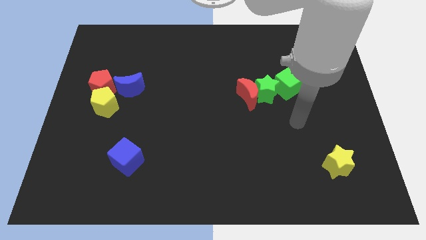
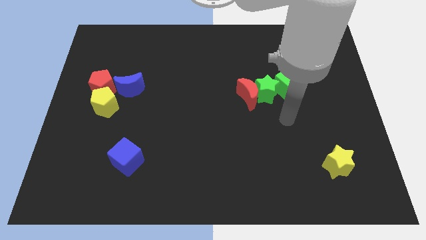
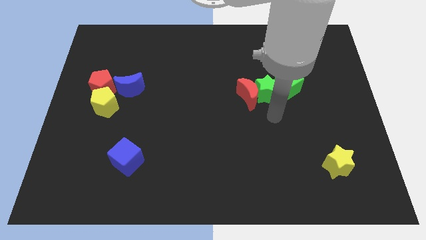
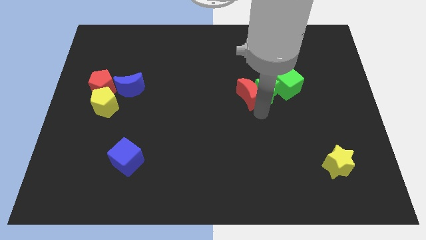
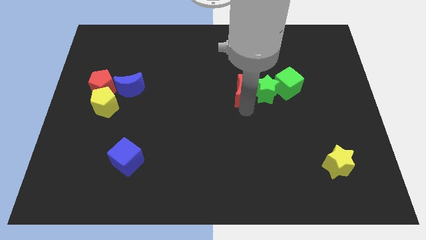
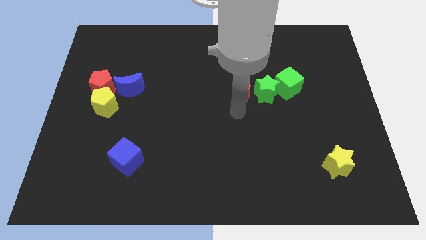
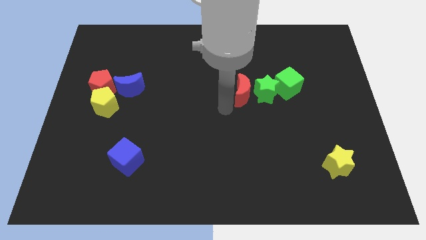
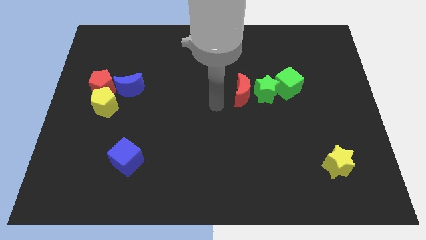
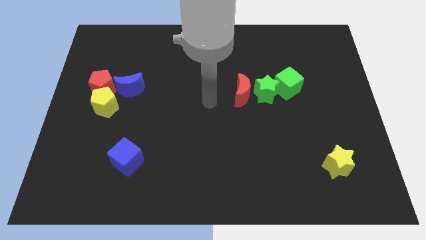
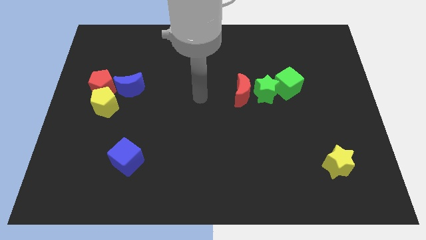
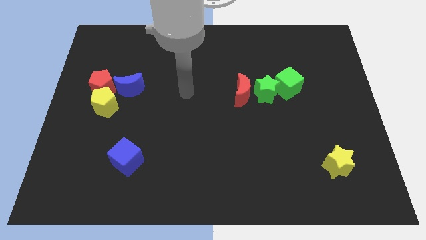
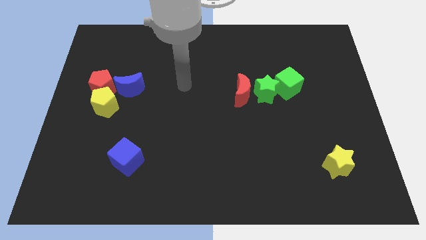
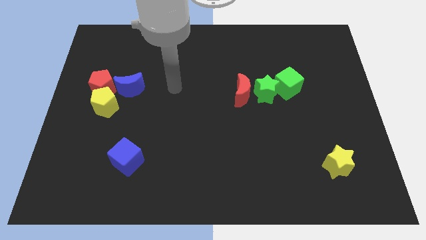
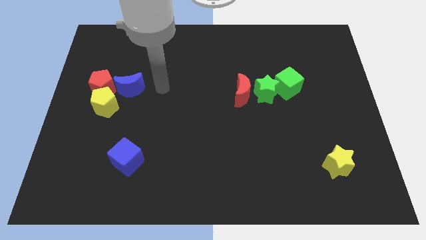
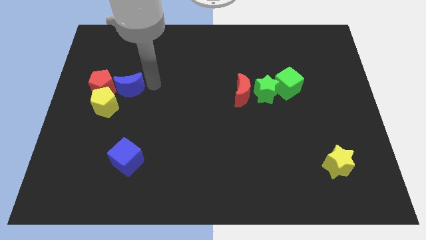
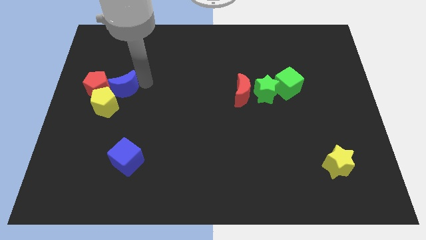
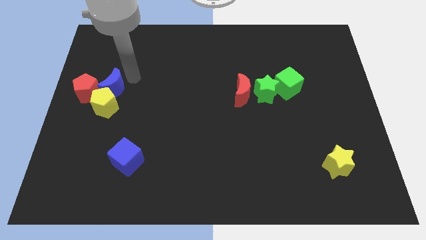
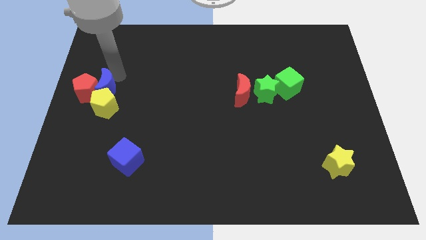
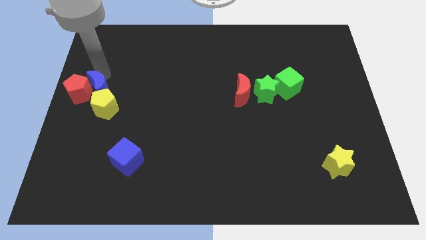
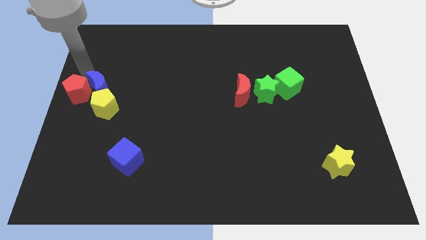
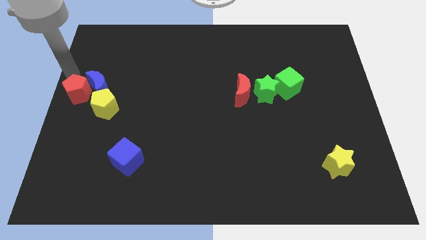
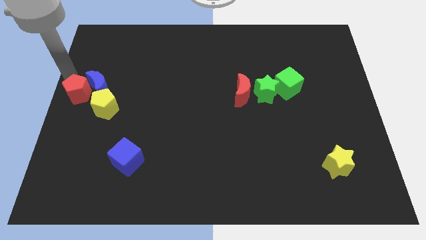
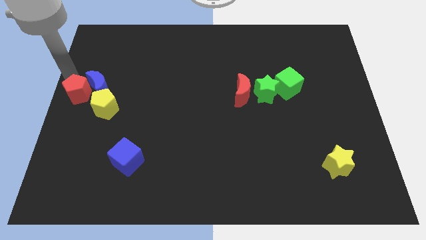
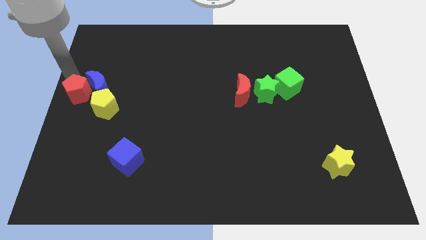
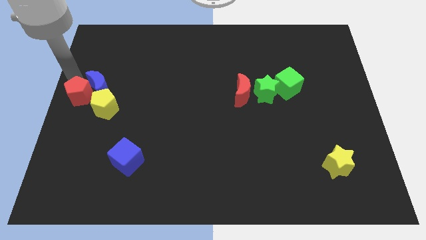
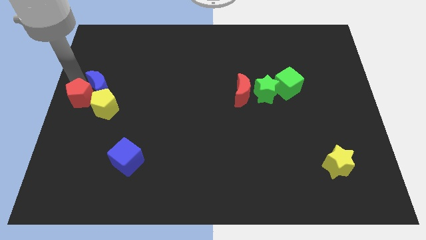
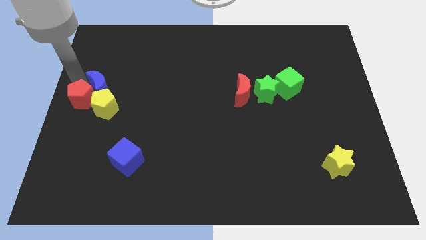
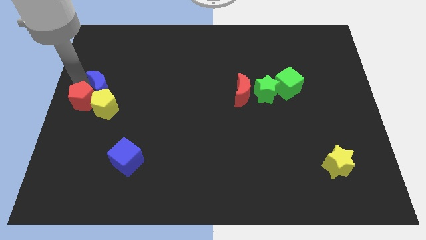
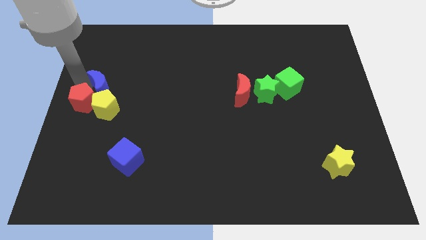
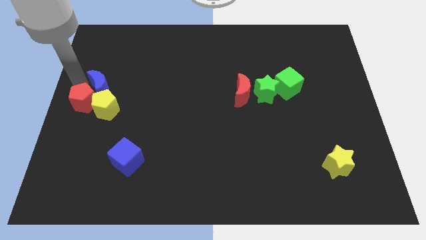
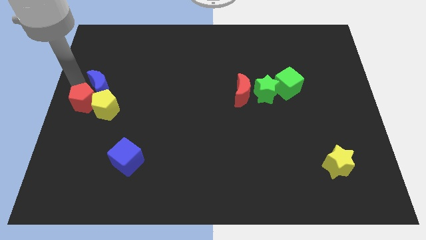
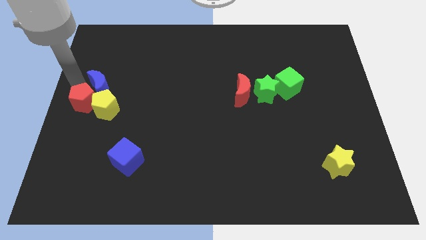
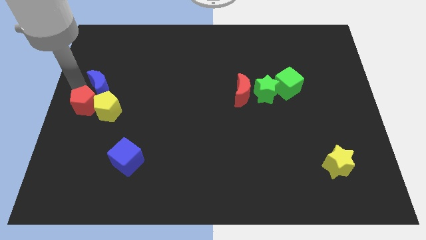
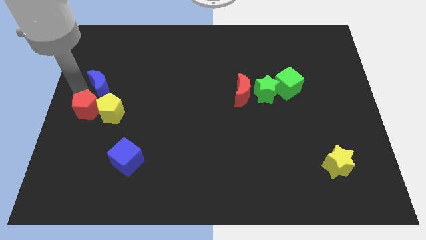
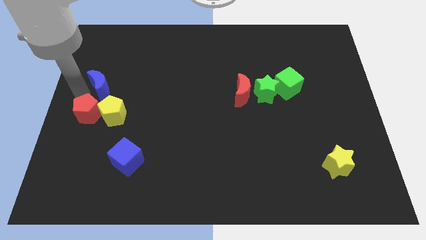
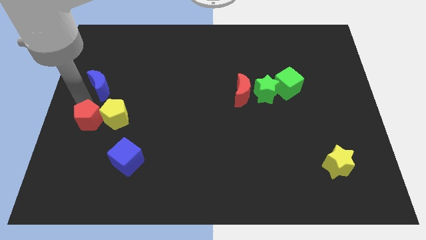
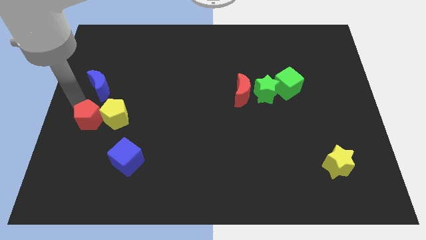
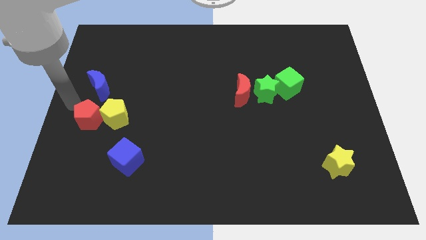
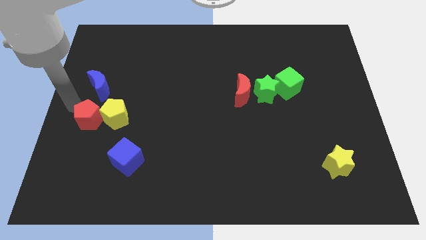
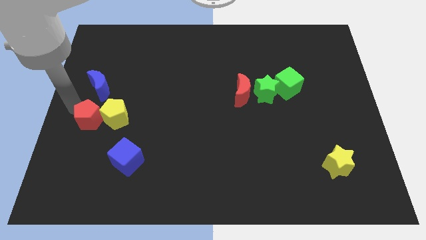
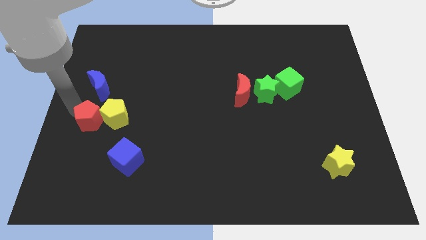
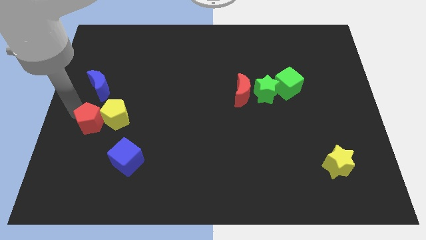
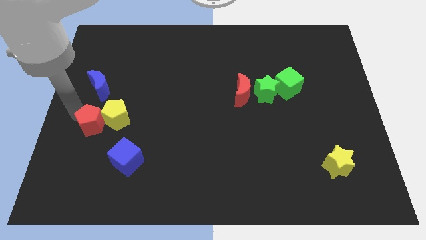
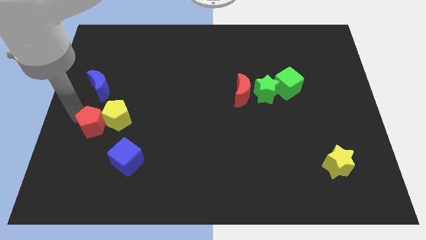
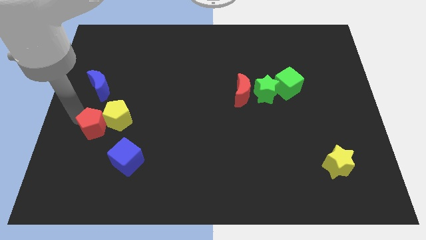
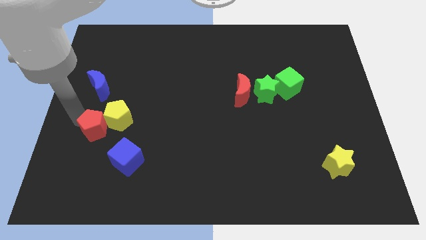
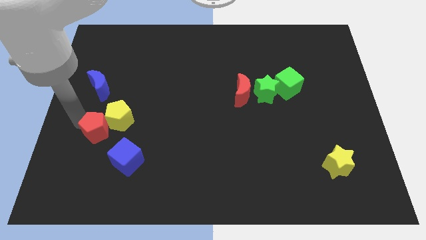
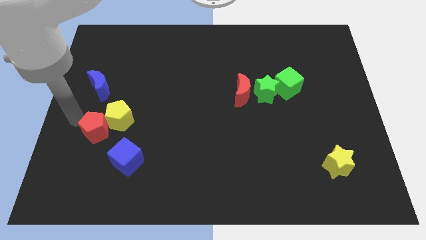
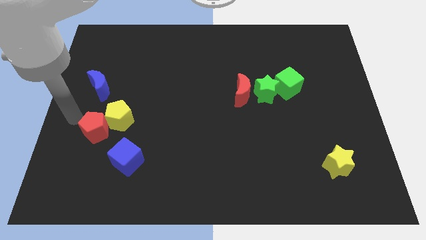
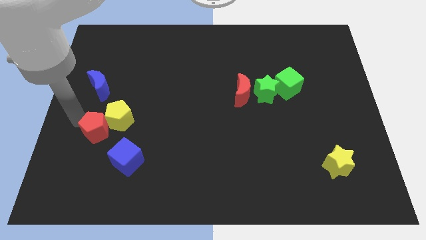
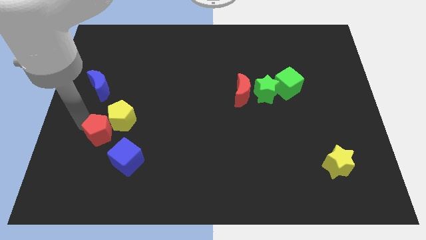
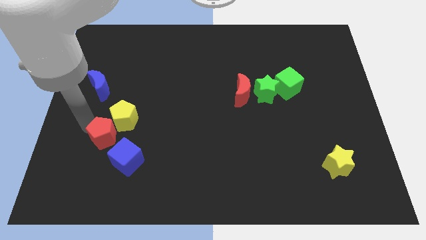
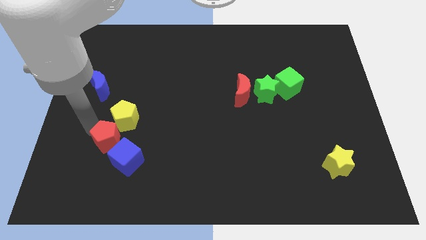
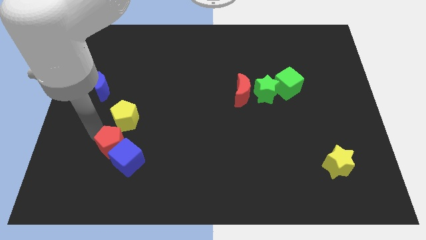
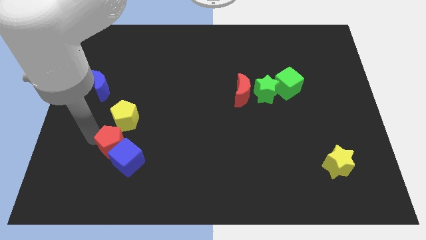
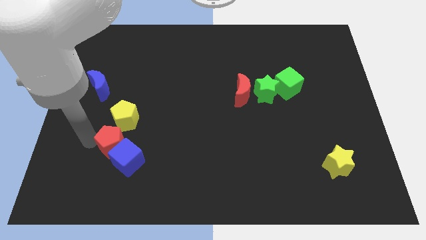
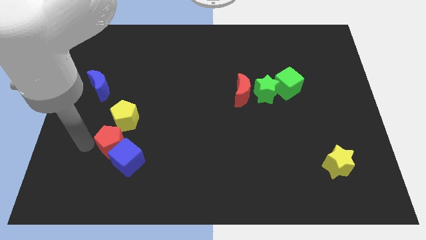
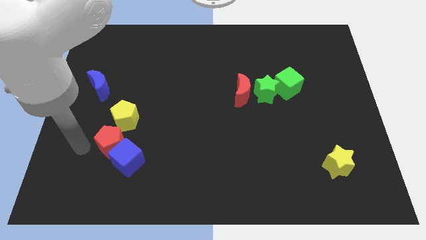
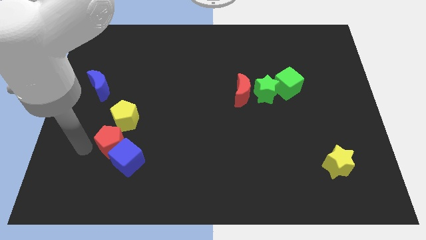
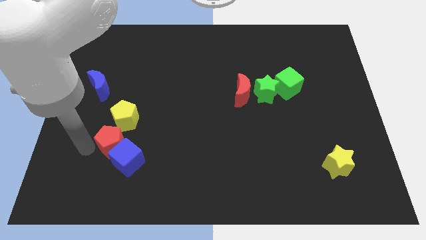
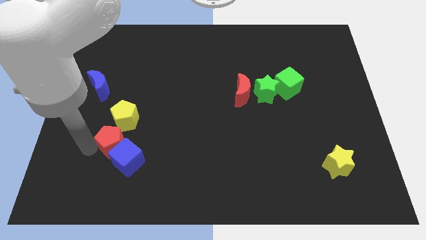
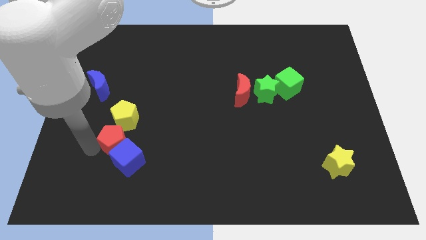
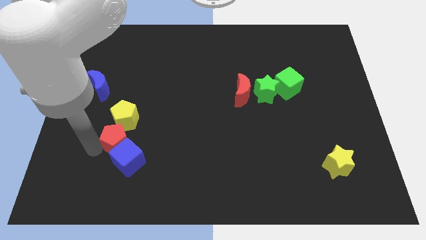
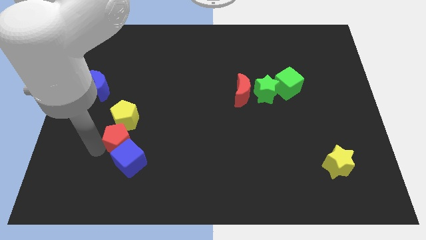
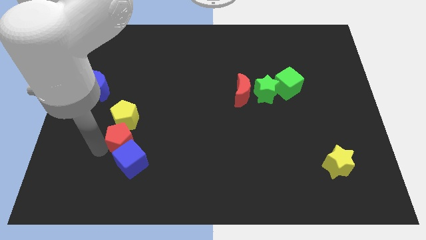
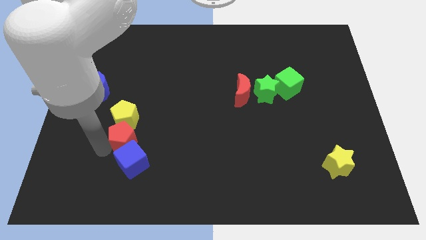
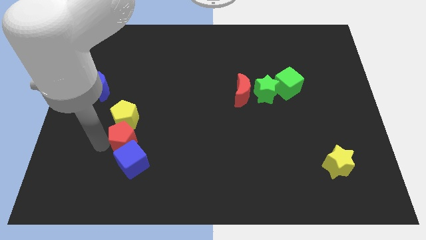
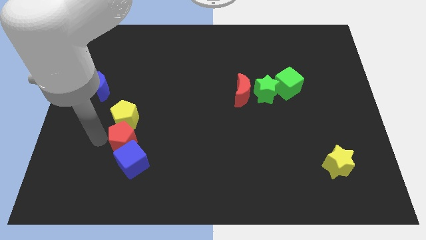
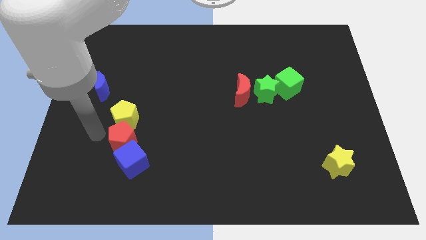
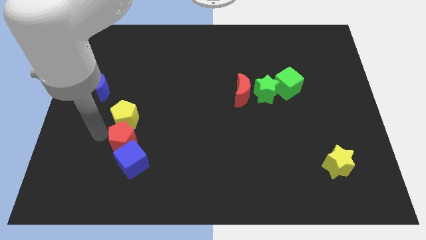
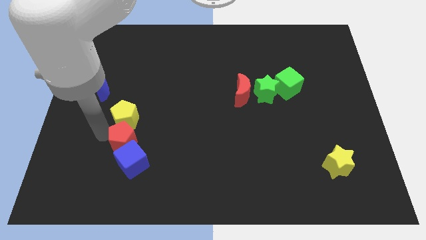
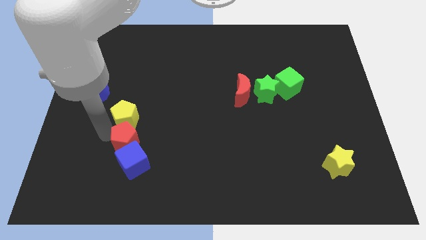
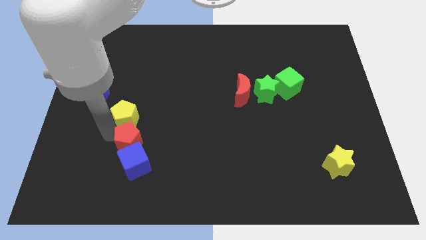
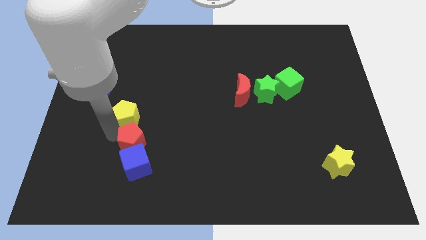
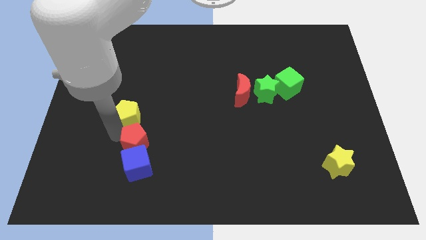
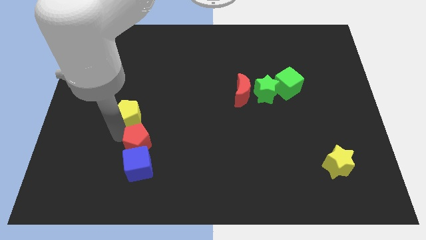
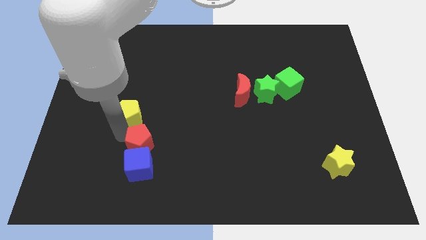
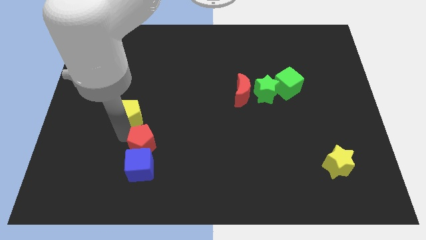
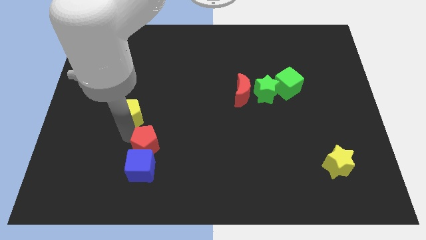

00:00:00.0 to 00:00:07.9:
slide the red pentagon downwards and to the right diagonally

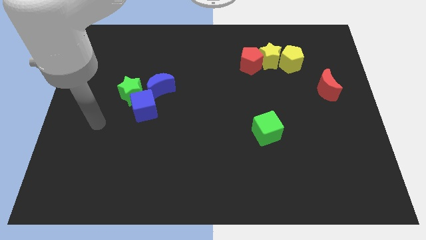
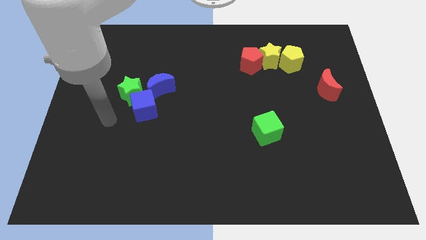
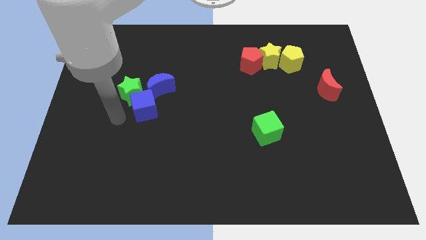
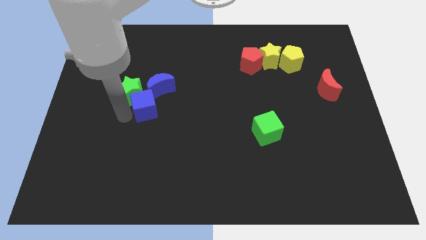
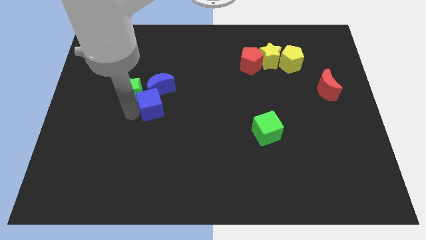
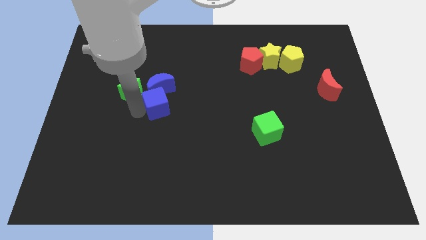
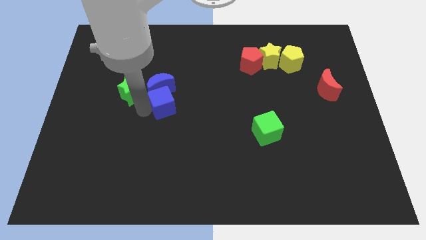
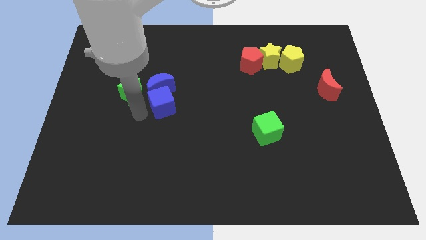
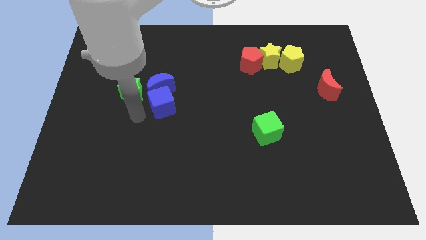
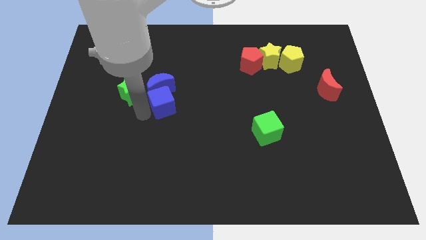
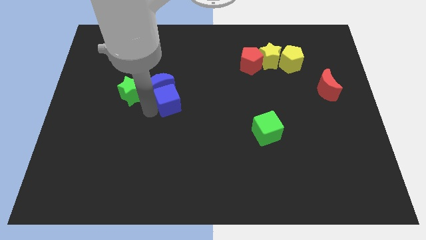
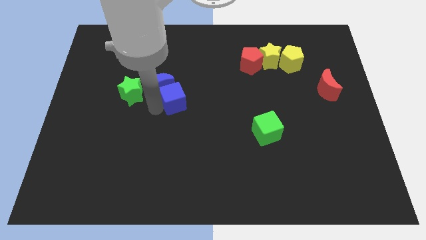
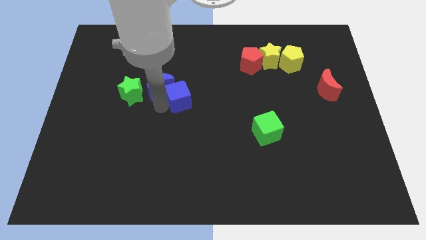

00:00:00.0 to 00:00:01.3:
slightly move the blue cube upwards and right diagonally
